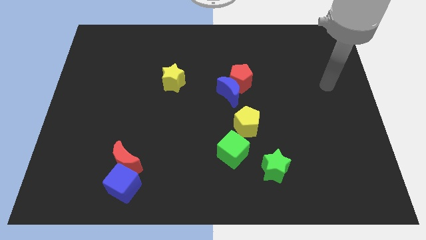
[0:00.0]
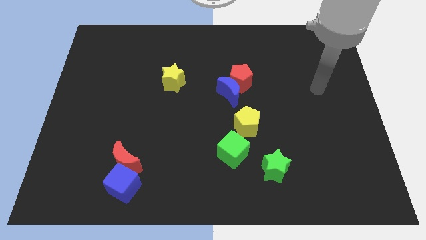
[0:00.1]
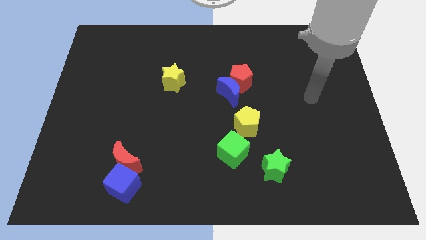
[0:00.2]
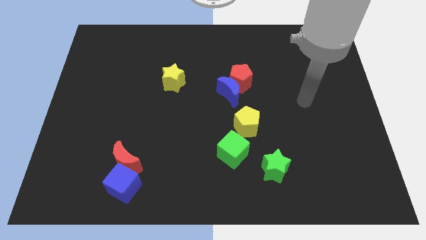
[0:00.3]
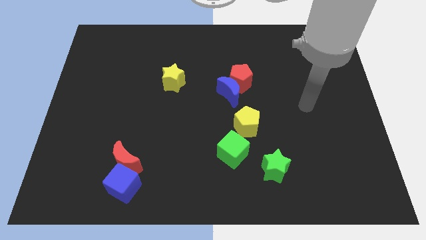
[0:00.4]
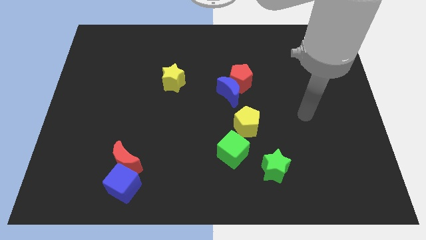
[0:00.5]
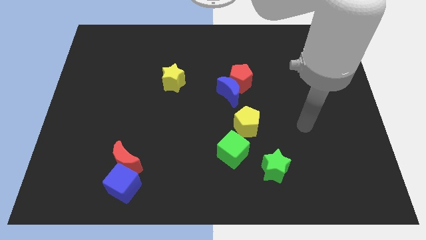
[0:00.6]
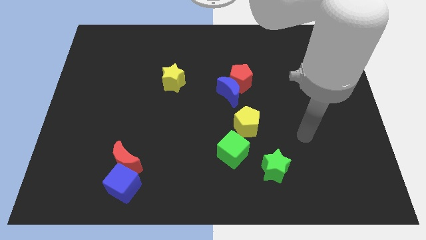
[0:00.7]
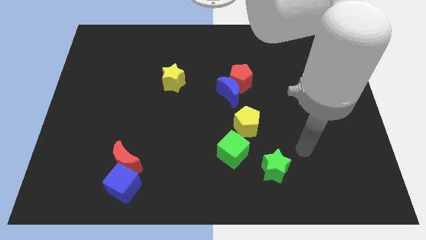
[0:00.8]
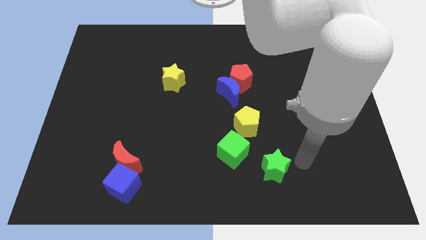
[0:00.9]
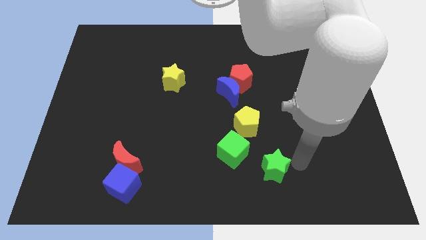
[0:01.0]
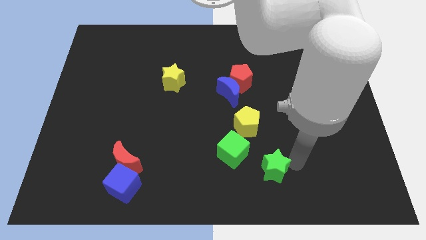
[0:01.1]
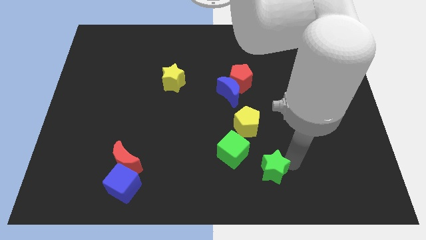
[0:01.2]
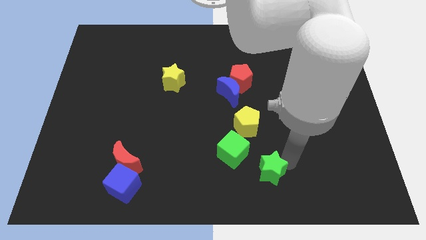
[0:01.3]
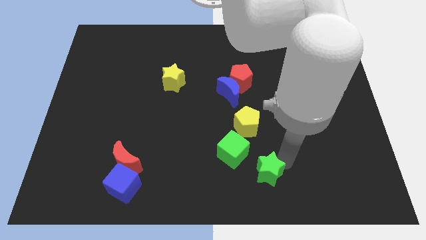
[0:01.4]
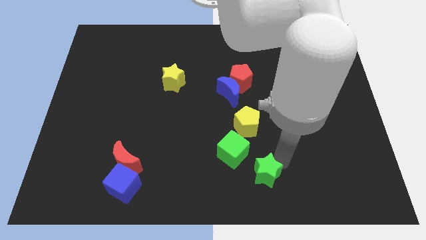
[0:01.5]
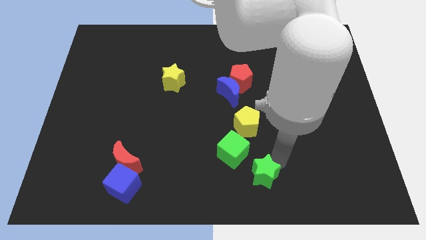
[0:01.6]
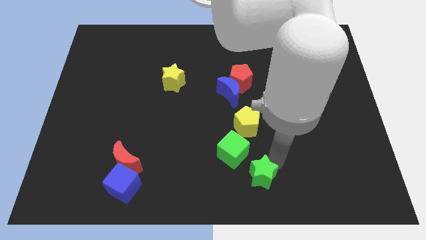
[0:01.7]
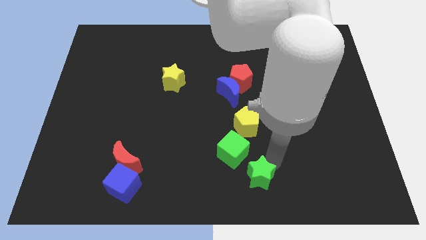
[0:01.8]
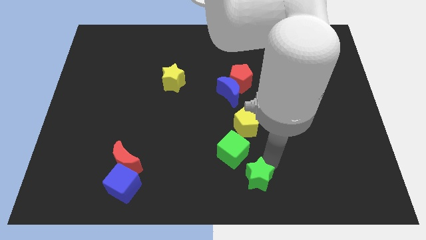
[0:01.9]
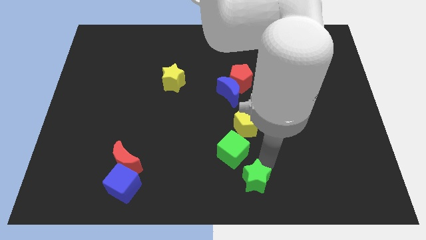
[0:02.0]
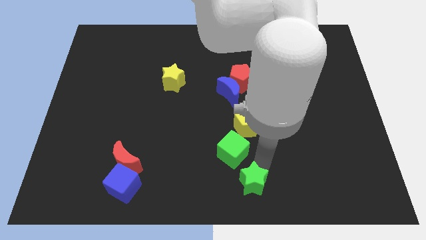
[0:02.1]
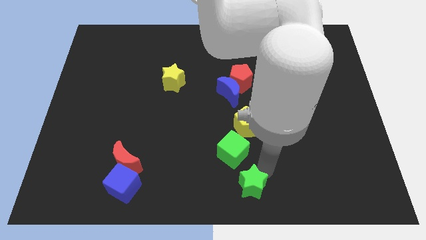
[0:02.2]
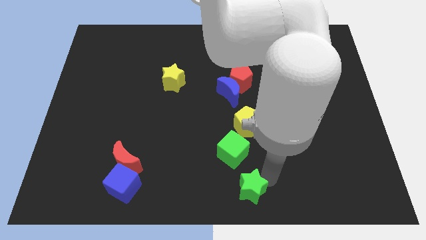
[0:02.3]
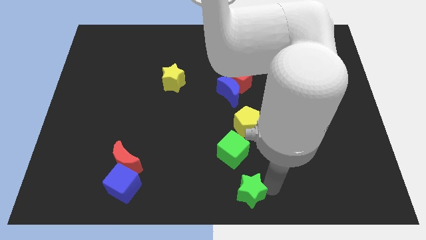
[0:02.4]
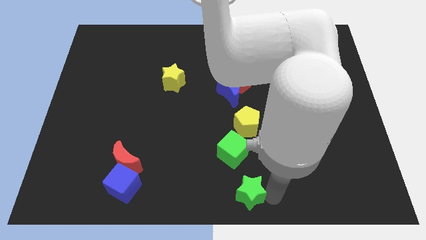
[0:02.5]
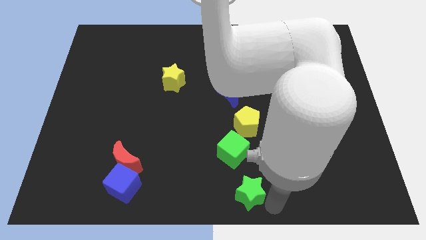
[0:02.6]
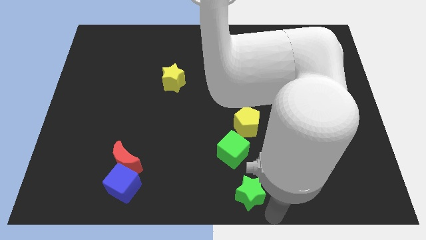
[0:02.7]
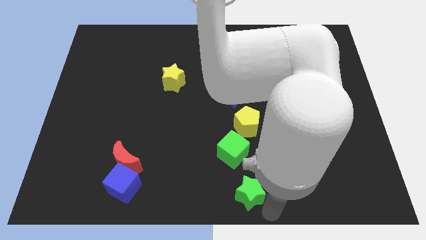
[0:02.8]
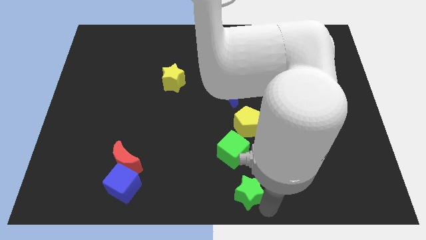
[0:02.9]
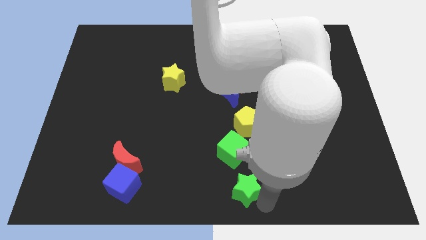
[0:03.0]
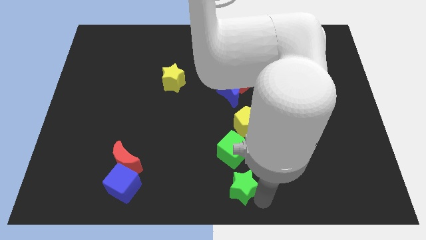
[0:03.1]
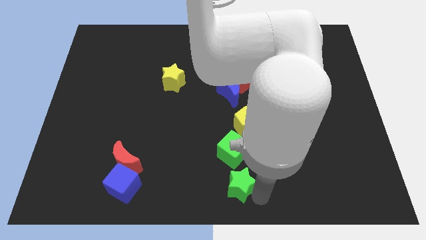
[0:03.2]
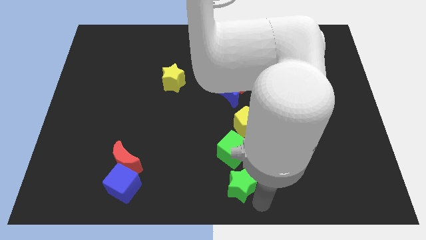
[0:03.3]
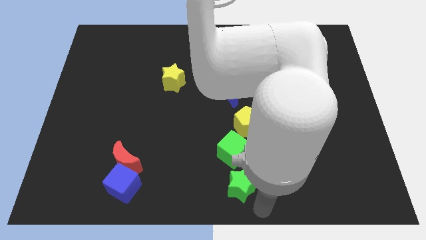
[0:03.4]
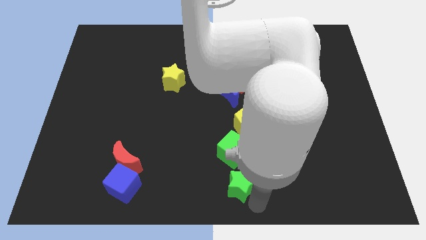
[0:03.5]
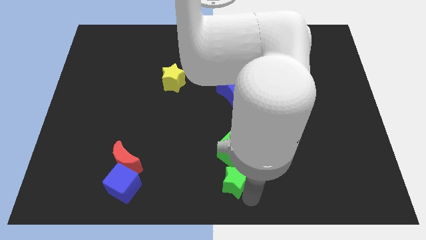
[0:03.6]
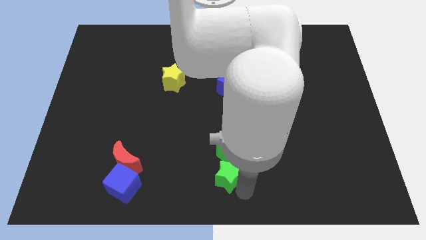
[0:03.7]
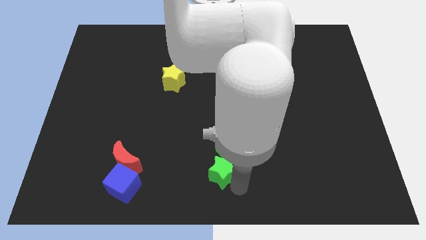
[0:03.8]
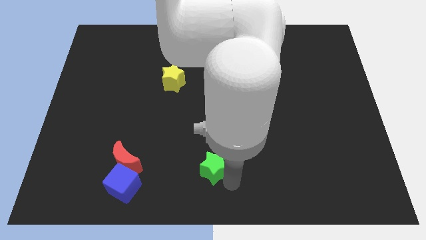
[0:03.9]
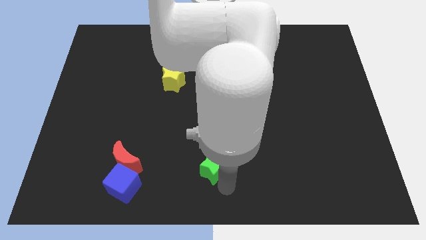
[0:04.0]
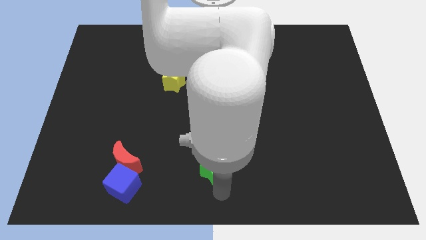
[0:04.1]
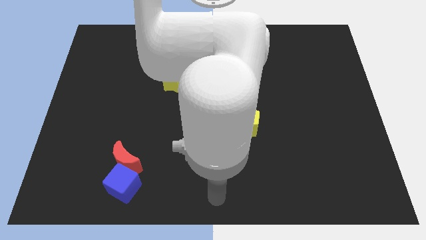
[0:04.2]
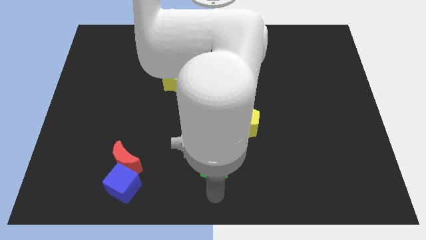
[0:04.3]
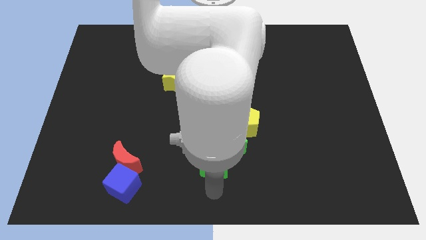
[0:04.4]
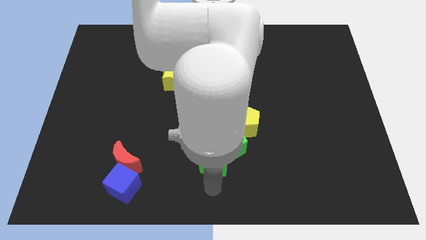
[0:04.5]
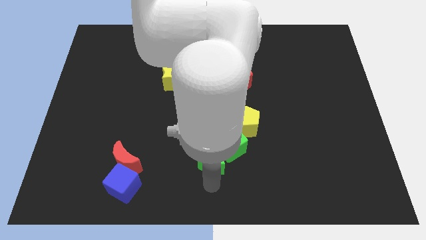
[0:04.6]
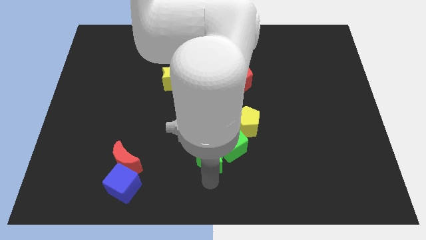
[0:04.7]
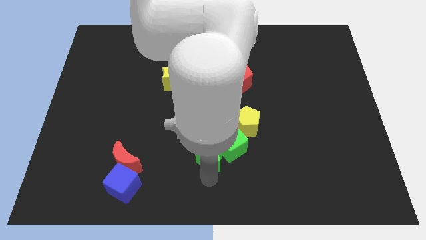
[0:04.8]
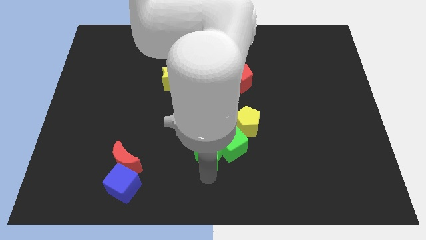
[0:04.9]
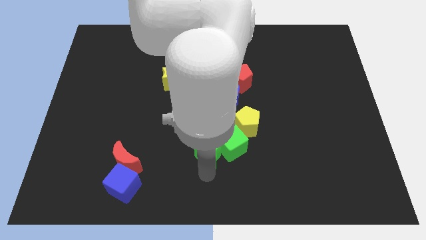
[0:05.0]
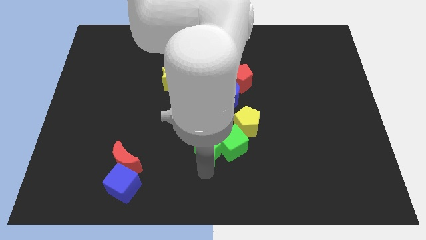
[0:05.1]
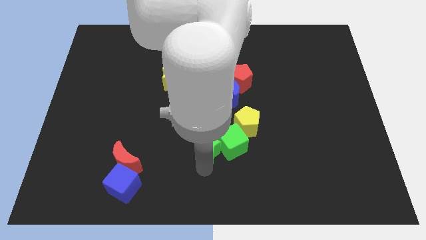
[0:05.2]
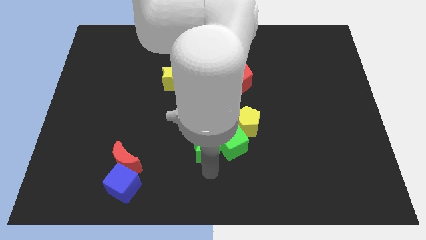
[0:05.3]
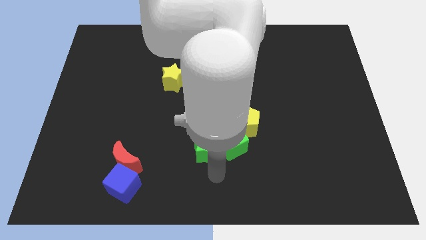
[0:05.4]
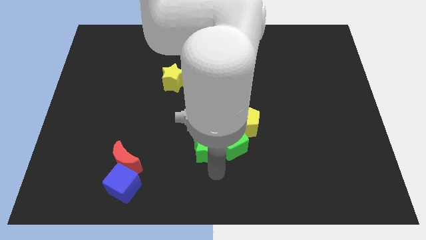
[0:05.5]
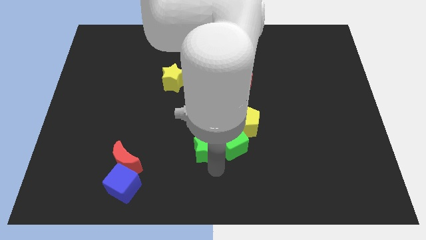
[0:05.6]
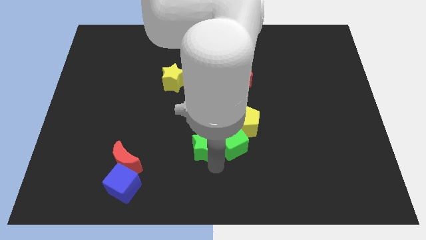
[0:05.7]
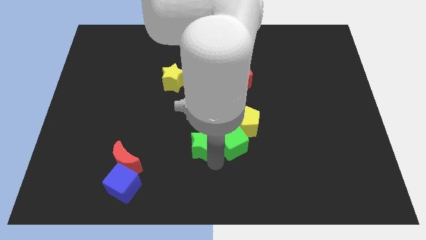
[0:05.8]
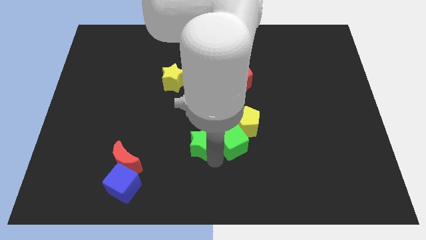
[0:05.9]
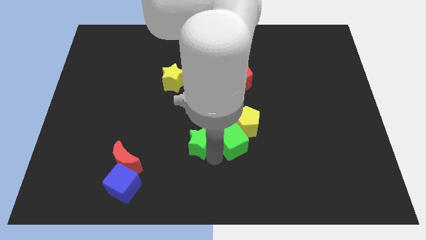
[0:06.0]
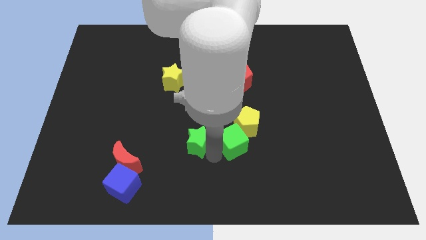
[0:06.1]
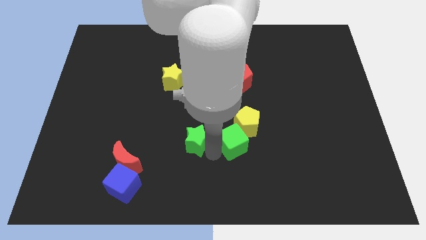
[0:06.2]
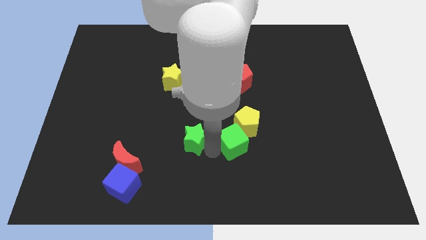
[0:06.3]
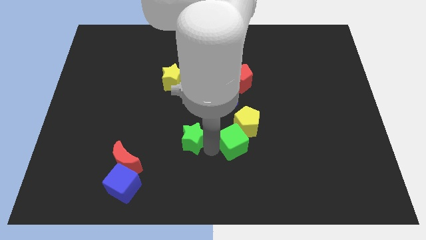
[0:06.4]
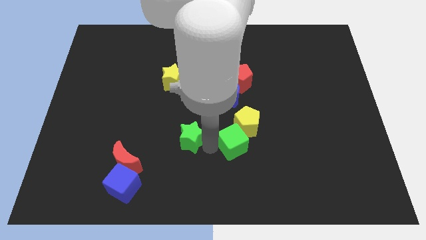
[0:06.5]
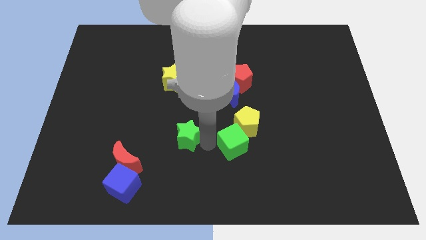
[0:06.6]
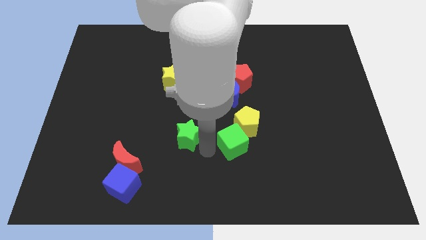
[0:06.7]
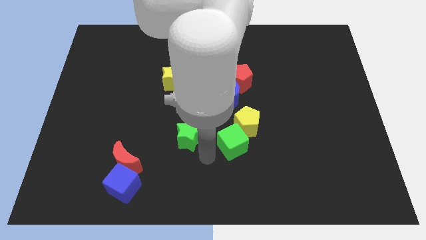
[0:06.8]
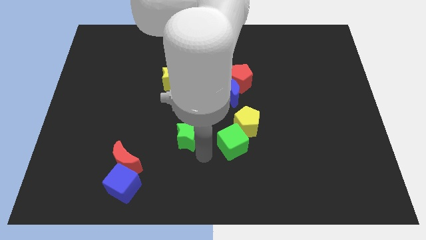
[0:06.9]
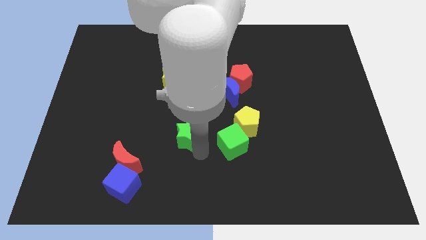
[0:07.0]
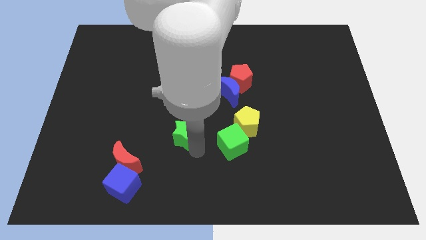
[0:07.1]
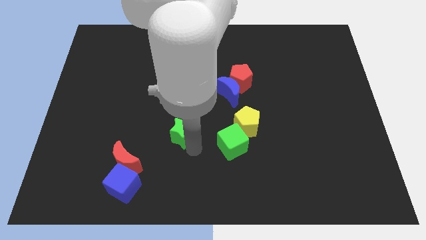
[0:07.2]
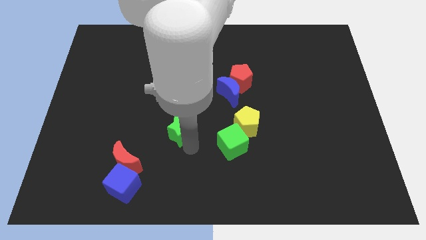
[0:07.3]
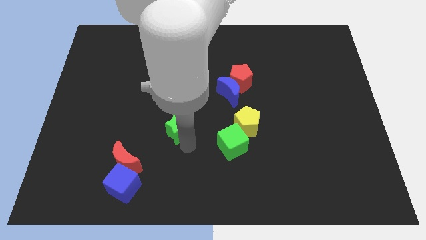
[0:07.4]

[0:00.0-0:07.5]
put the green star to the bottom side of the yellow star
